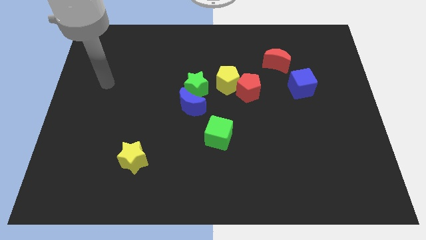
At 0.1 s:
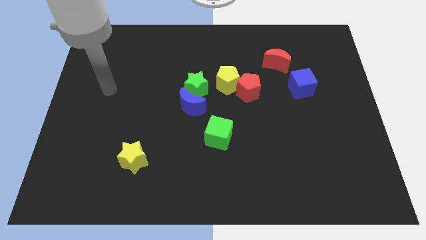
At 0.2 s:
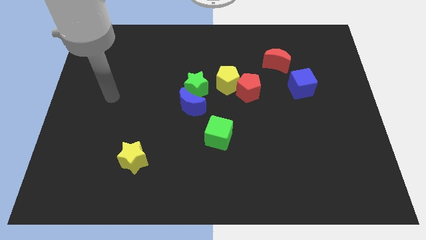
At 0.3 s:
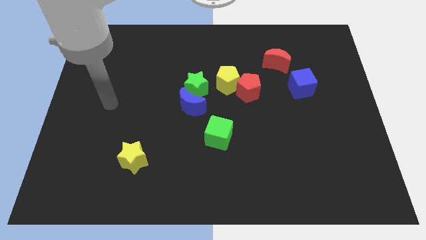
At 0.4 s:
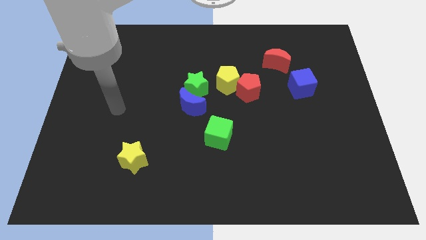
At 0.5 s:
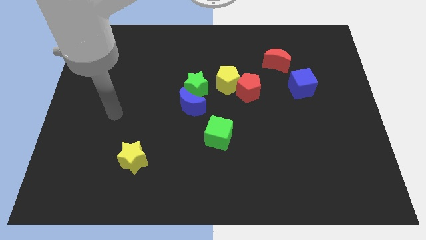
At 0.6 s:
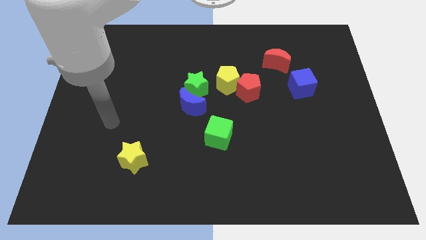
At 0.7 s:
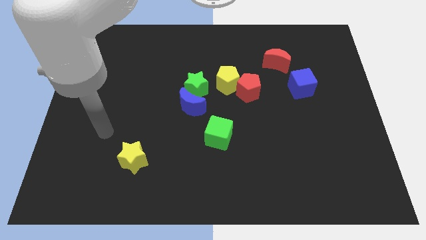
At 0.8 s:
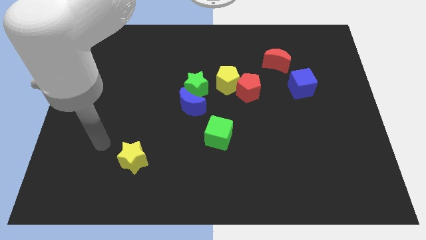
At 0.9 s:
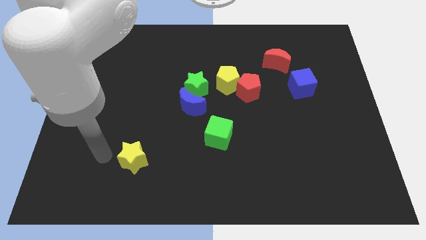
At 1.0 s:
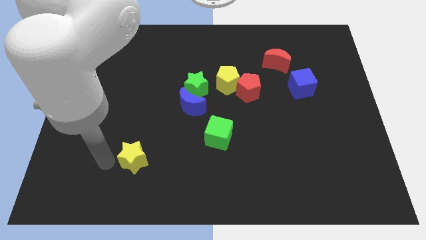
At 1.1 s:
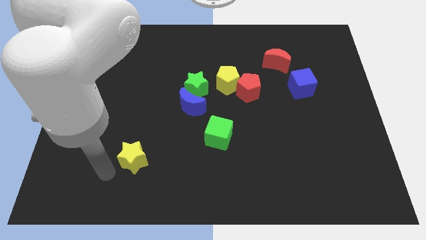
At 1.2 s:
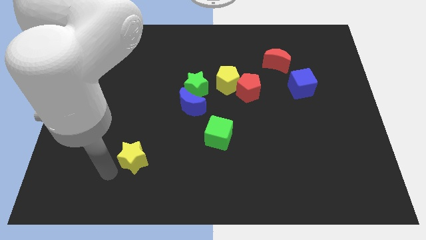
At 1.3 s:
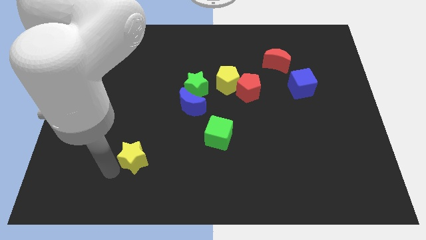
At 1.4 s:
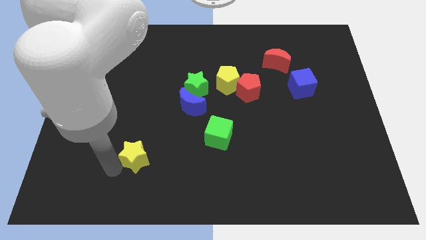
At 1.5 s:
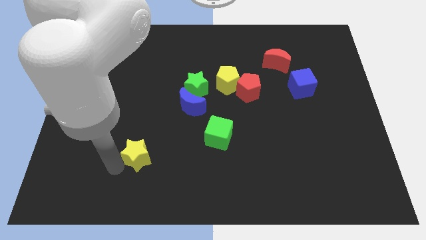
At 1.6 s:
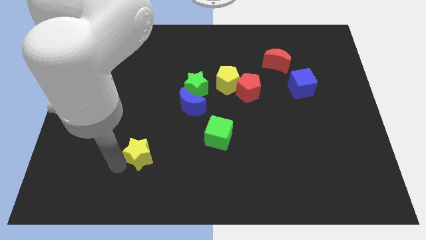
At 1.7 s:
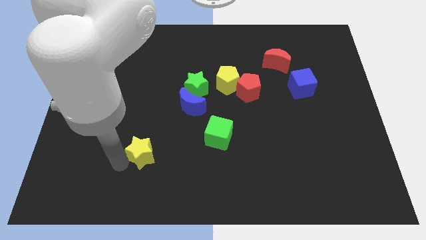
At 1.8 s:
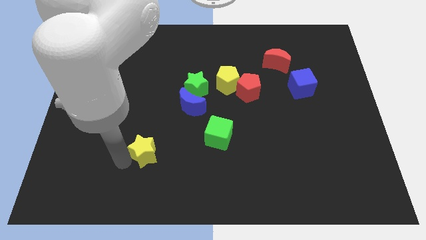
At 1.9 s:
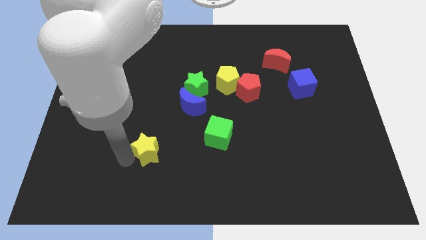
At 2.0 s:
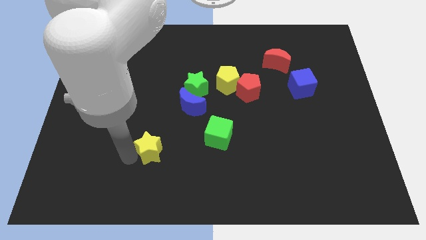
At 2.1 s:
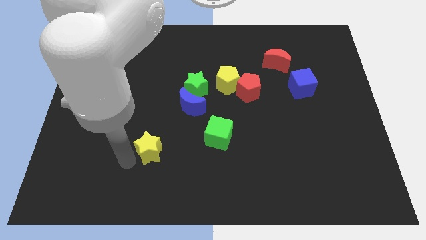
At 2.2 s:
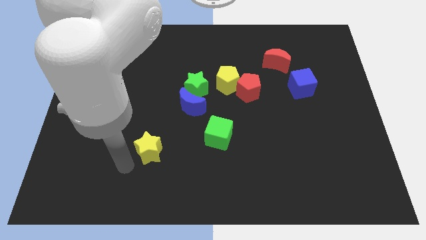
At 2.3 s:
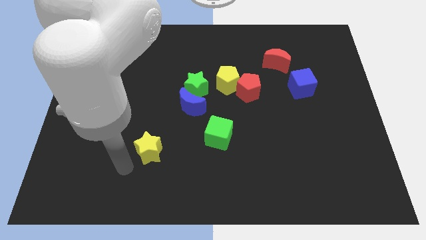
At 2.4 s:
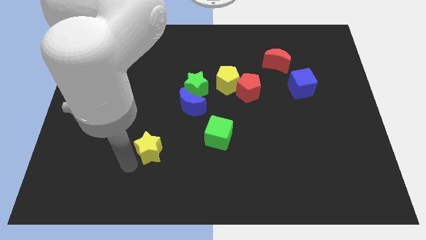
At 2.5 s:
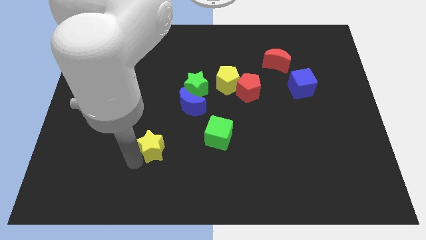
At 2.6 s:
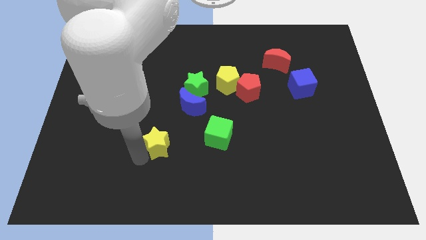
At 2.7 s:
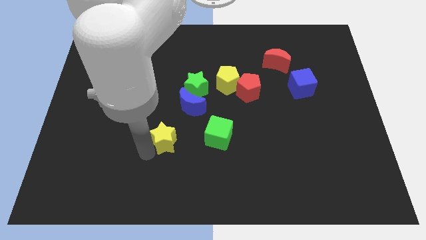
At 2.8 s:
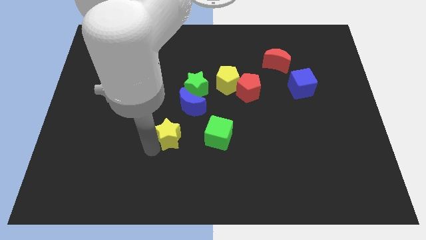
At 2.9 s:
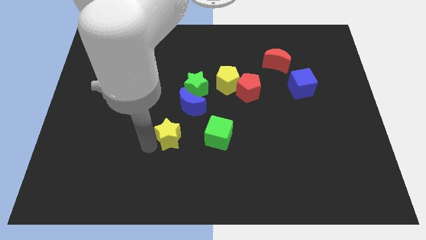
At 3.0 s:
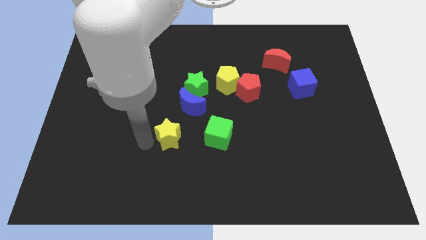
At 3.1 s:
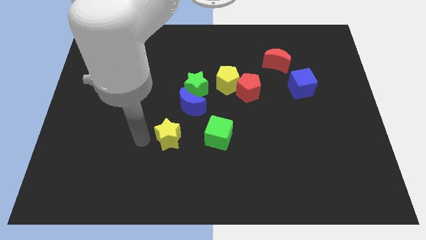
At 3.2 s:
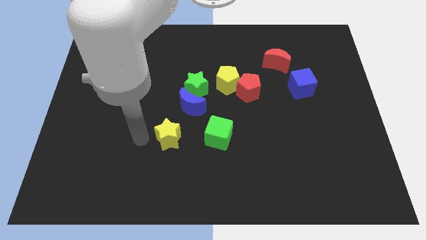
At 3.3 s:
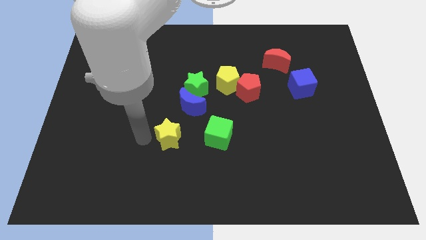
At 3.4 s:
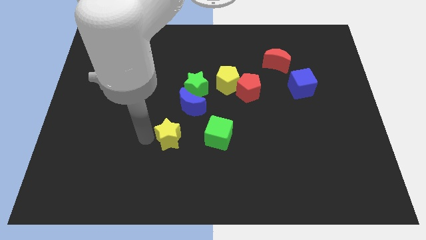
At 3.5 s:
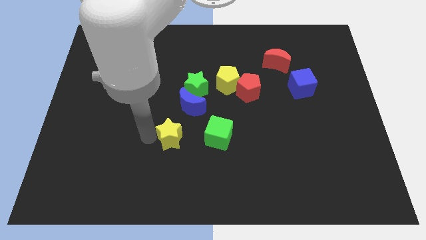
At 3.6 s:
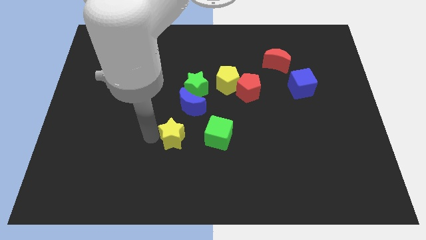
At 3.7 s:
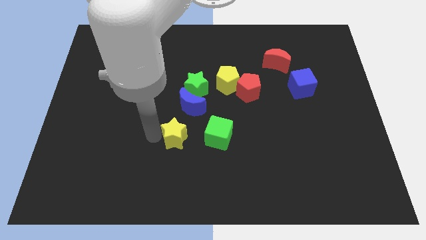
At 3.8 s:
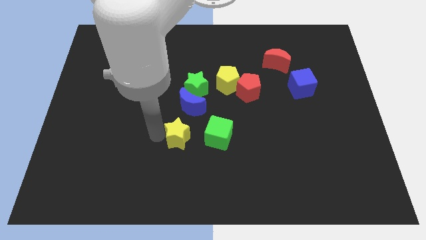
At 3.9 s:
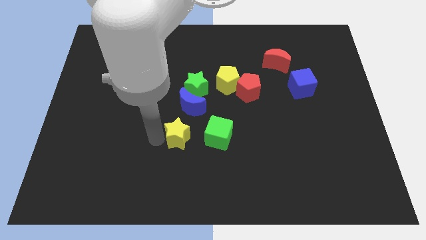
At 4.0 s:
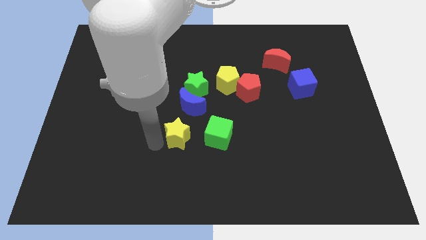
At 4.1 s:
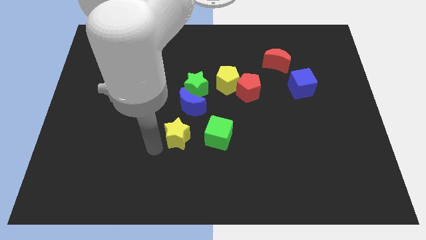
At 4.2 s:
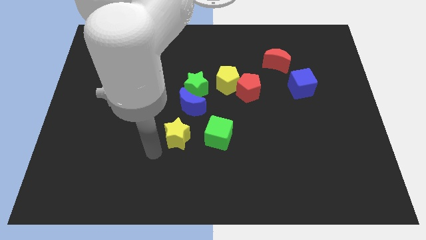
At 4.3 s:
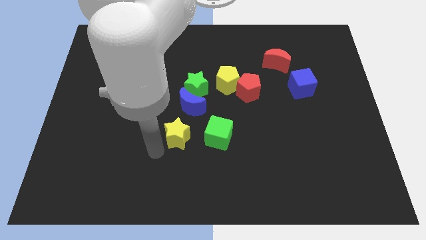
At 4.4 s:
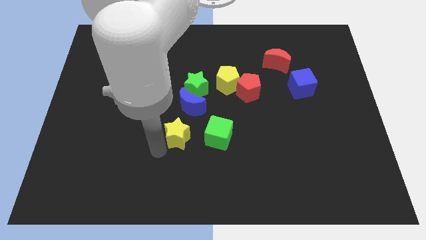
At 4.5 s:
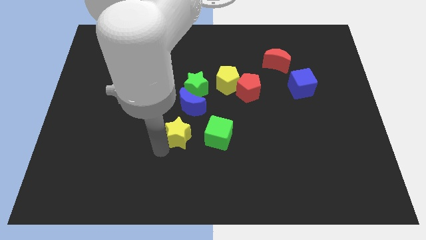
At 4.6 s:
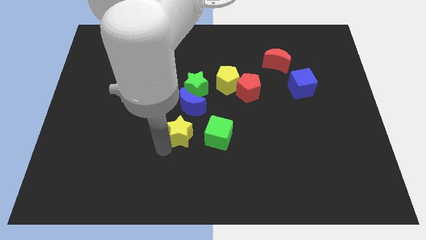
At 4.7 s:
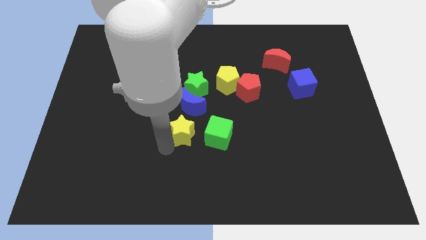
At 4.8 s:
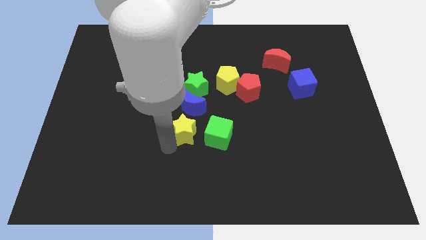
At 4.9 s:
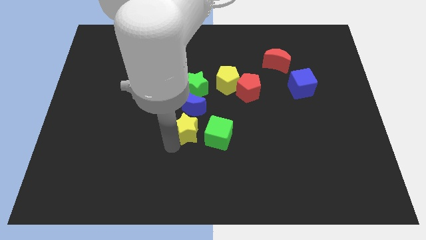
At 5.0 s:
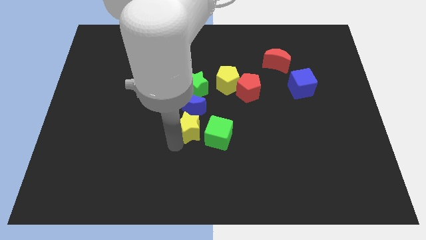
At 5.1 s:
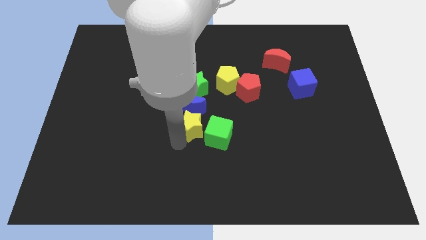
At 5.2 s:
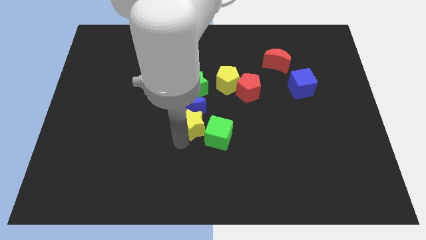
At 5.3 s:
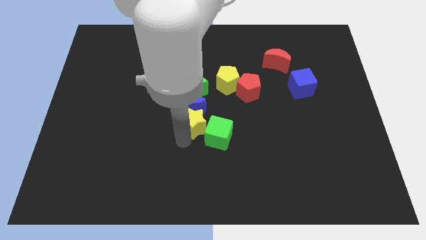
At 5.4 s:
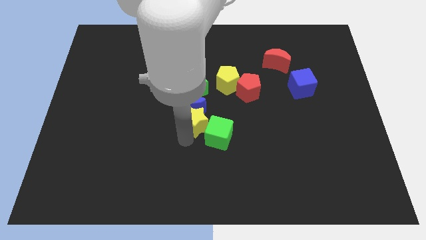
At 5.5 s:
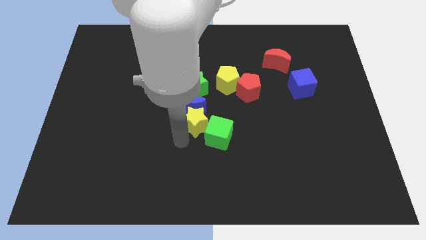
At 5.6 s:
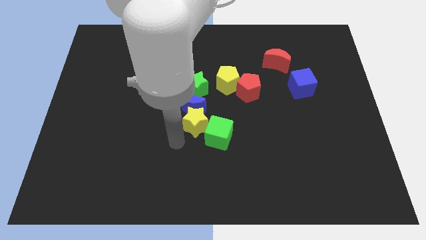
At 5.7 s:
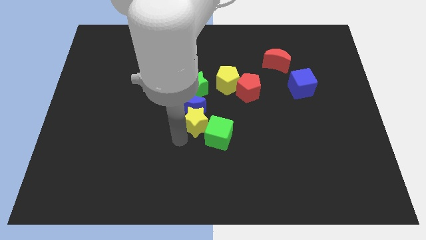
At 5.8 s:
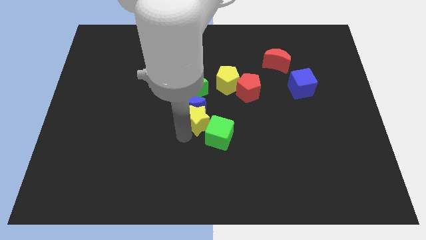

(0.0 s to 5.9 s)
move the yellow star to the top side of the green cube
